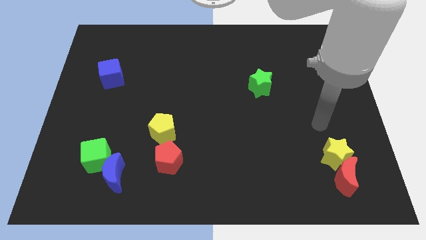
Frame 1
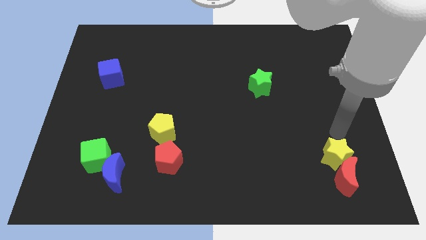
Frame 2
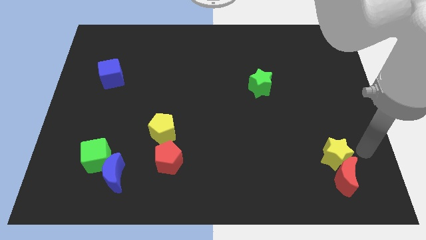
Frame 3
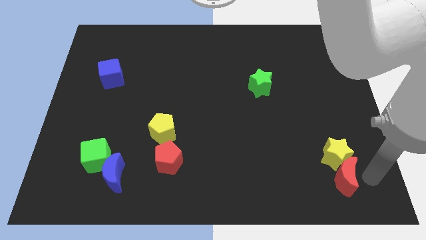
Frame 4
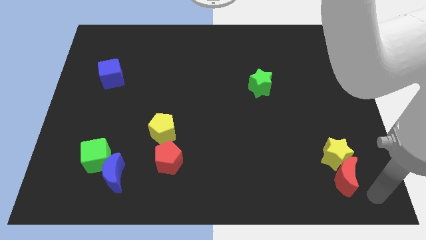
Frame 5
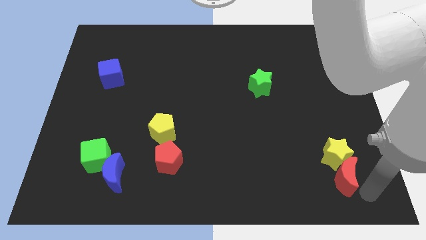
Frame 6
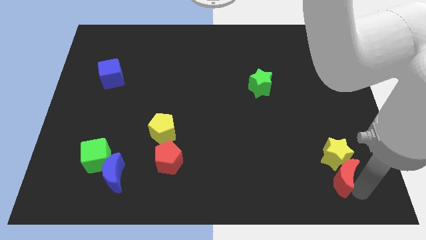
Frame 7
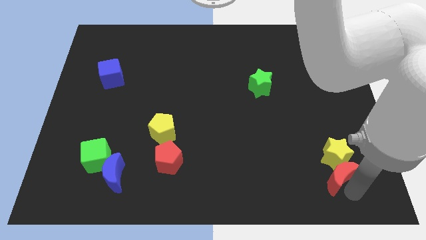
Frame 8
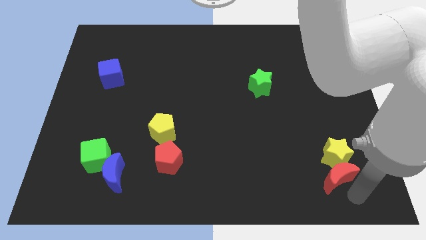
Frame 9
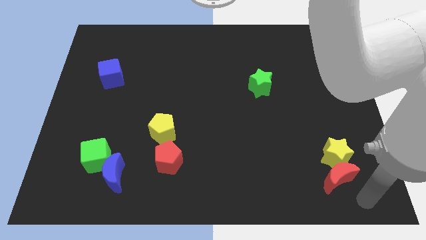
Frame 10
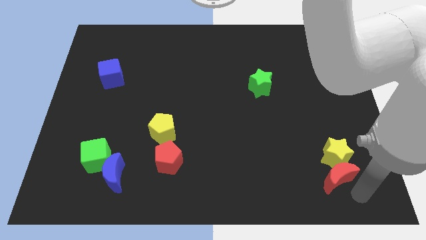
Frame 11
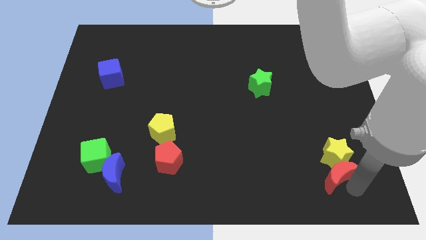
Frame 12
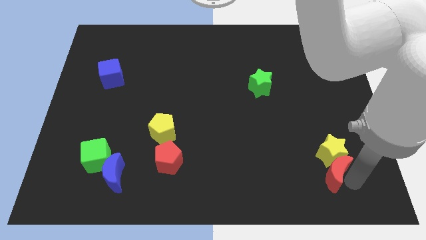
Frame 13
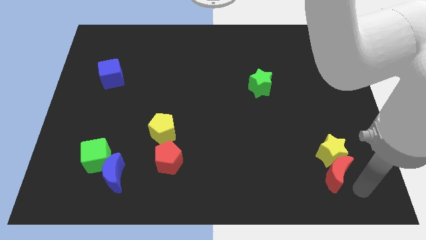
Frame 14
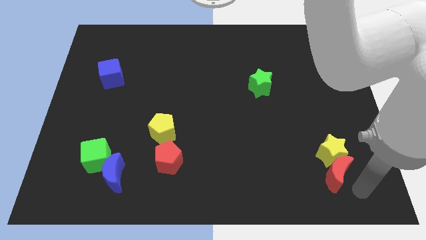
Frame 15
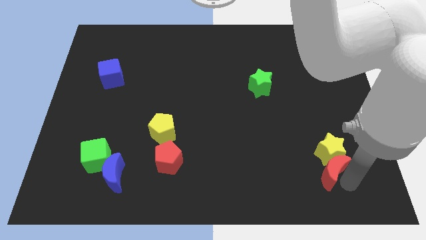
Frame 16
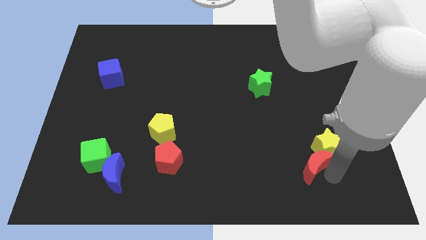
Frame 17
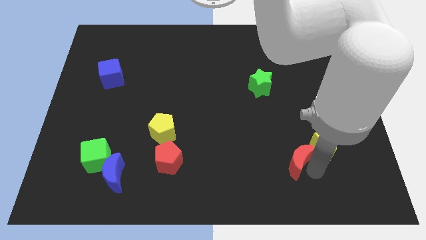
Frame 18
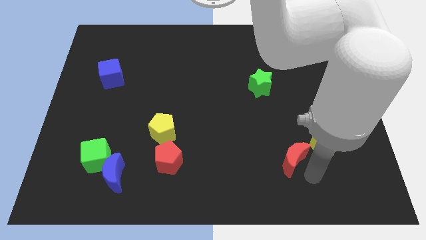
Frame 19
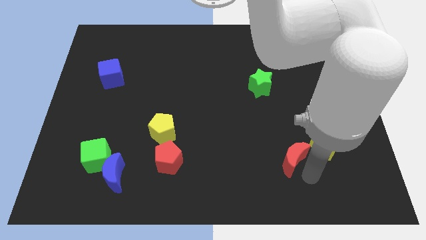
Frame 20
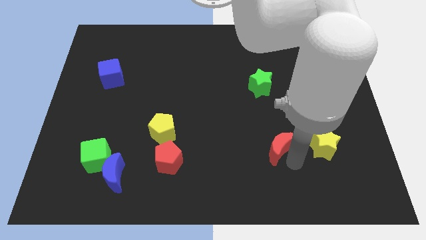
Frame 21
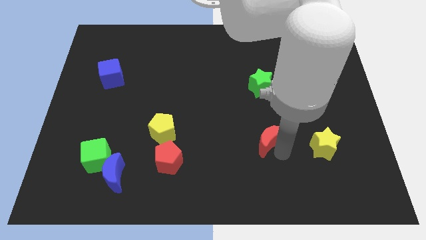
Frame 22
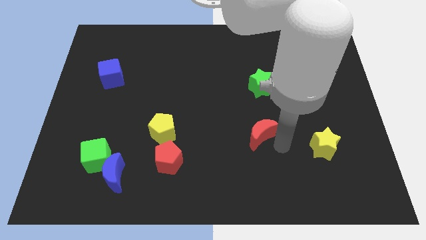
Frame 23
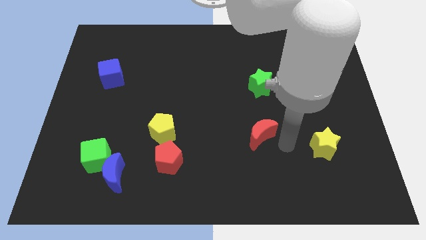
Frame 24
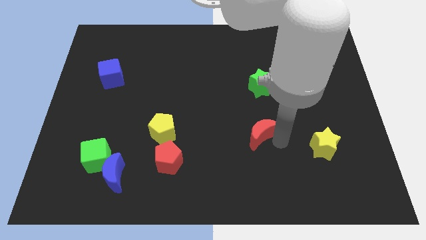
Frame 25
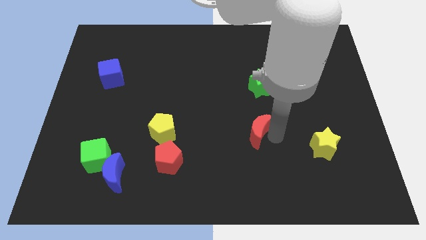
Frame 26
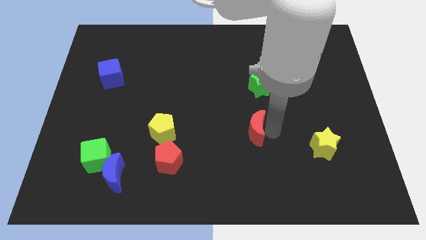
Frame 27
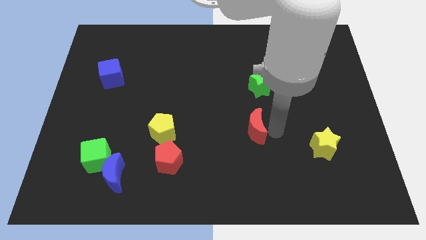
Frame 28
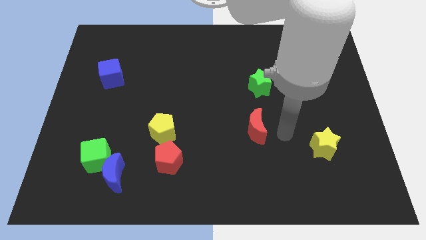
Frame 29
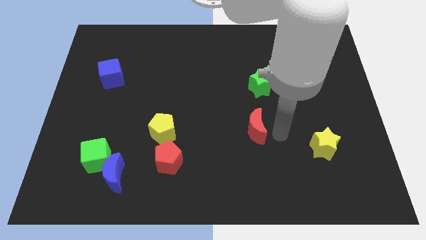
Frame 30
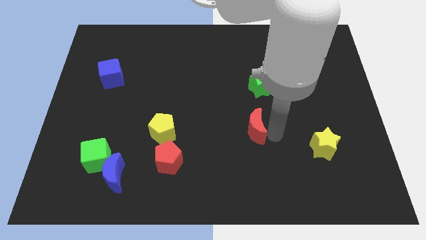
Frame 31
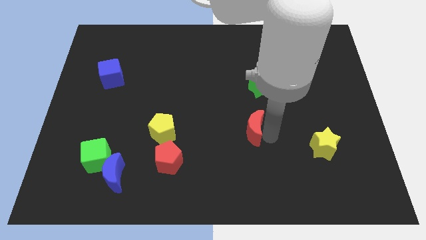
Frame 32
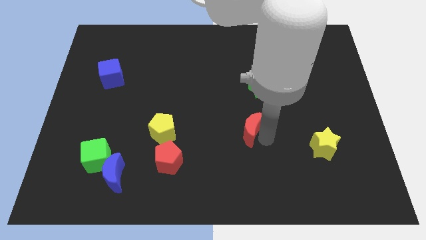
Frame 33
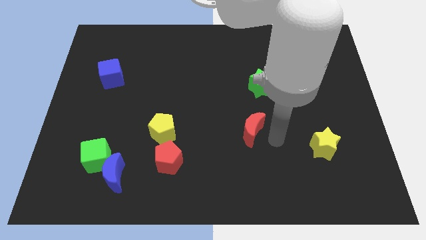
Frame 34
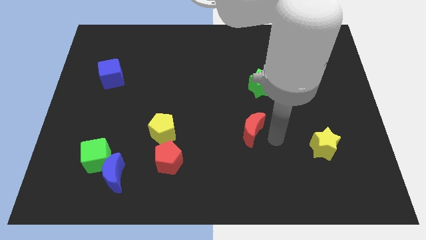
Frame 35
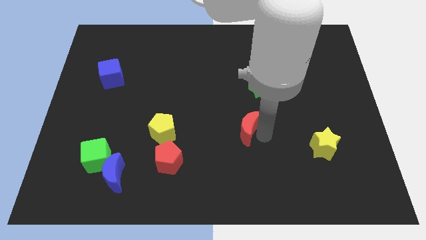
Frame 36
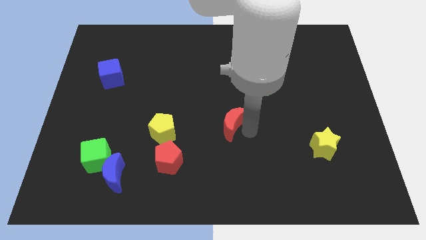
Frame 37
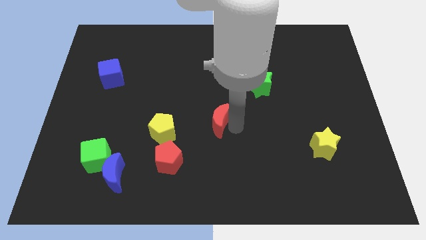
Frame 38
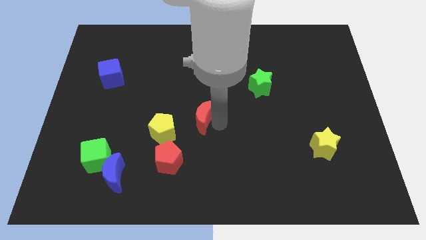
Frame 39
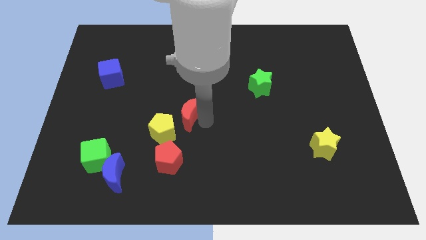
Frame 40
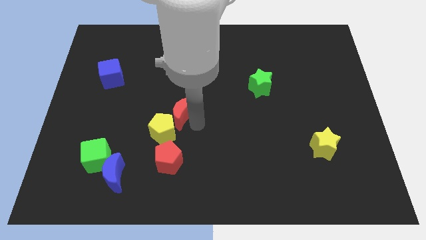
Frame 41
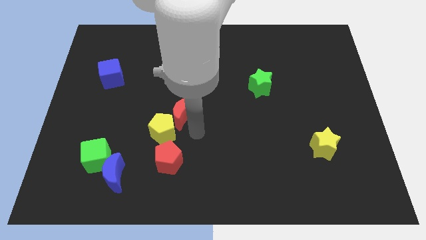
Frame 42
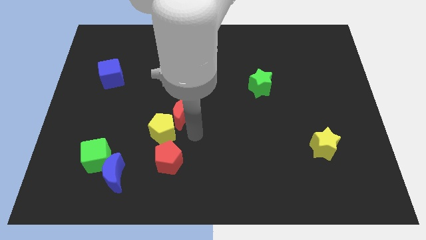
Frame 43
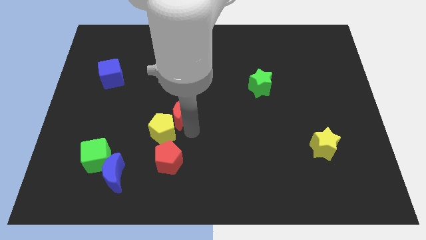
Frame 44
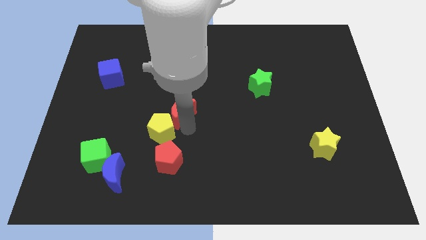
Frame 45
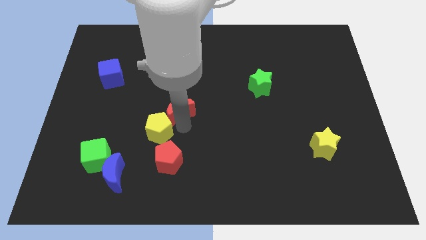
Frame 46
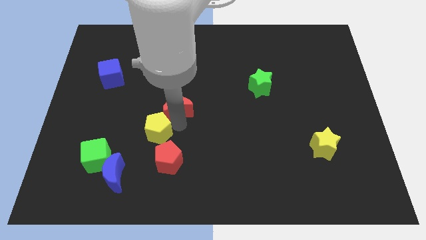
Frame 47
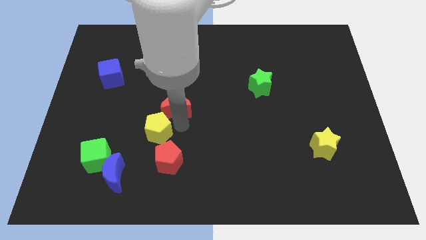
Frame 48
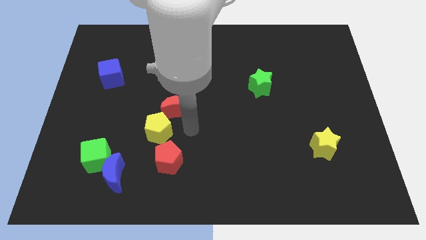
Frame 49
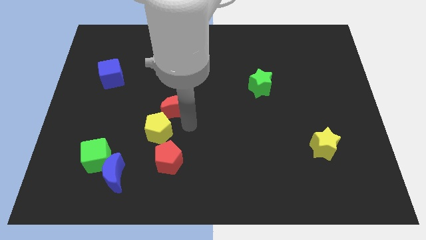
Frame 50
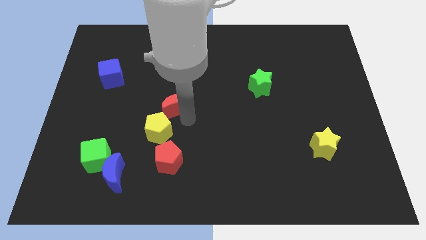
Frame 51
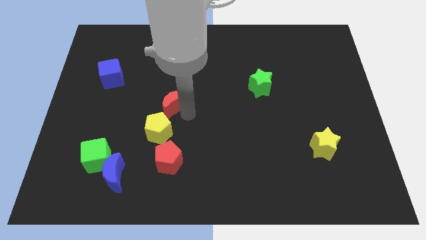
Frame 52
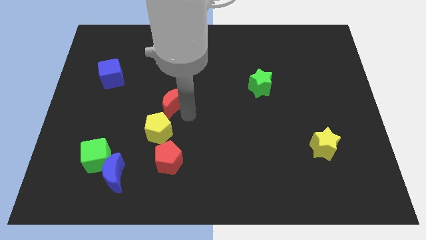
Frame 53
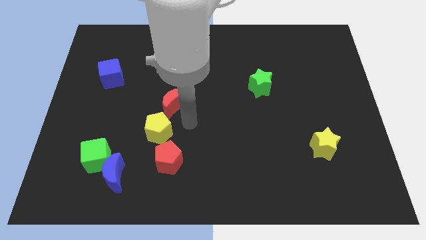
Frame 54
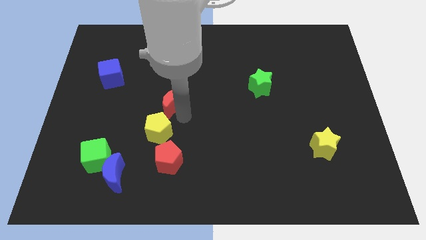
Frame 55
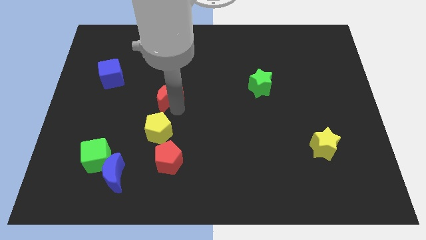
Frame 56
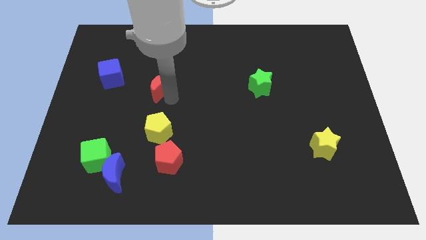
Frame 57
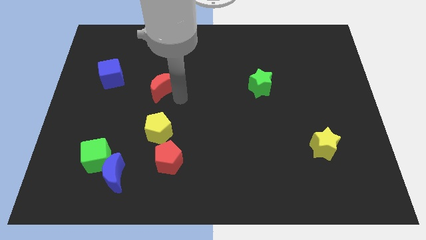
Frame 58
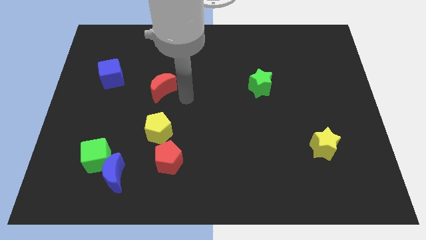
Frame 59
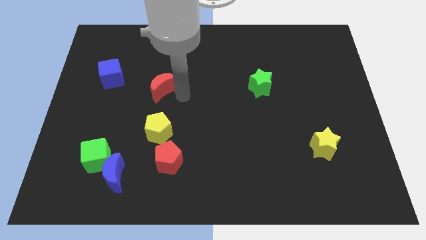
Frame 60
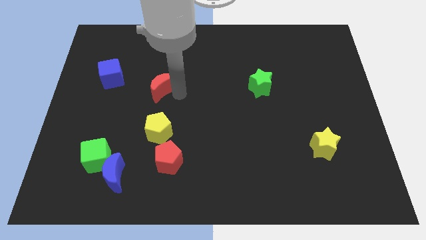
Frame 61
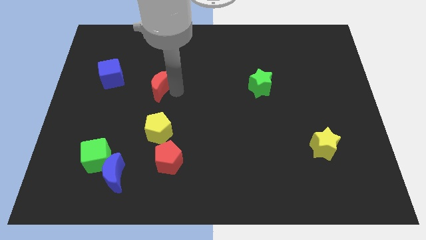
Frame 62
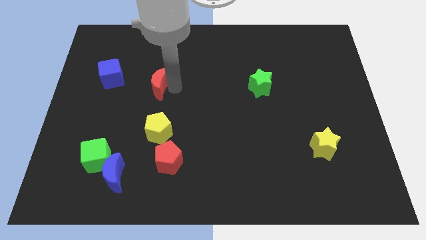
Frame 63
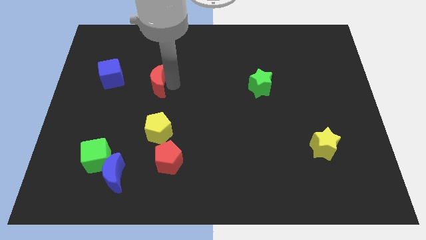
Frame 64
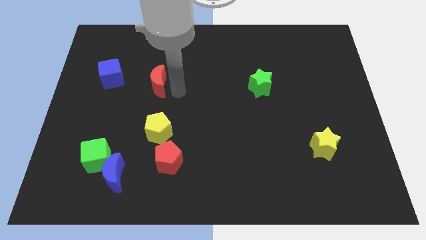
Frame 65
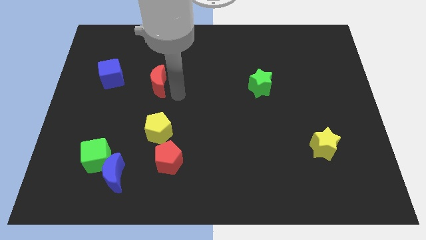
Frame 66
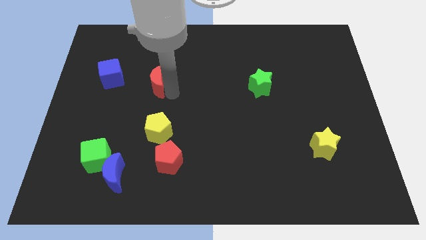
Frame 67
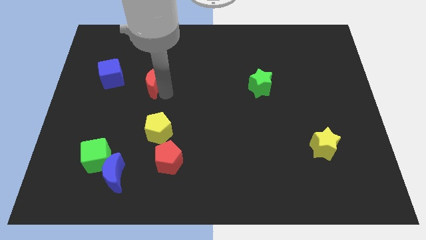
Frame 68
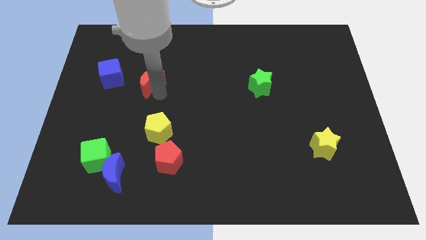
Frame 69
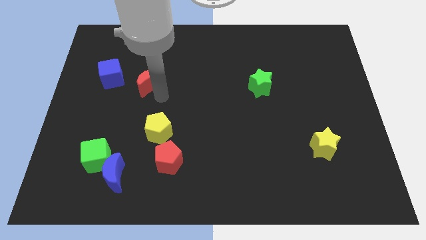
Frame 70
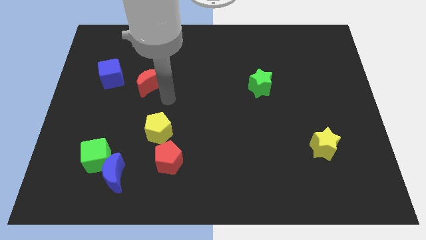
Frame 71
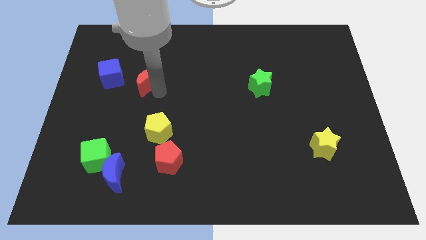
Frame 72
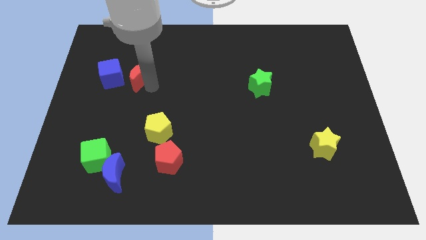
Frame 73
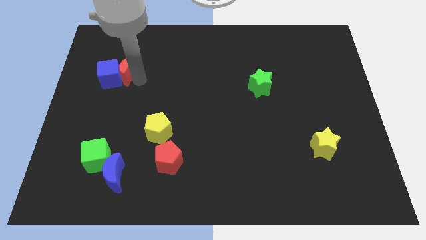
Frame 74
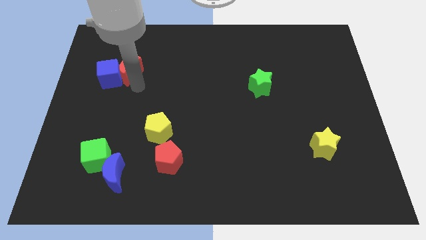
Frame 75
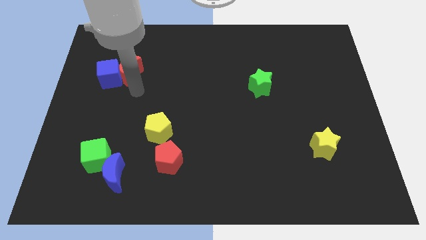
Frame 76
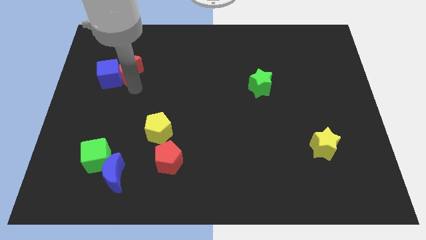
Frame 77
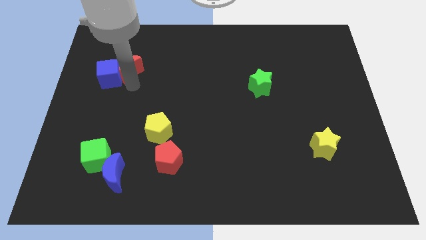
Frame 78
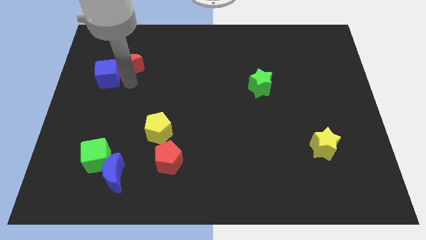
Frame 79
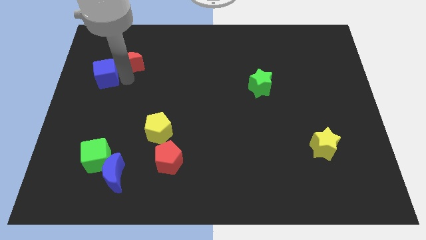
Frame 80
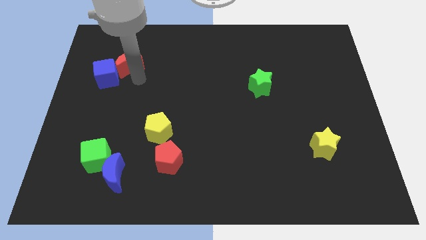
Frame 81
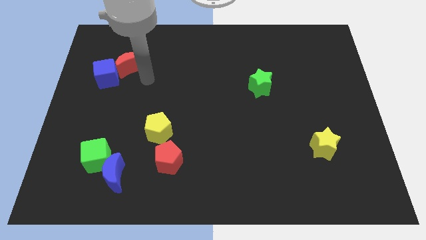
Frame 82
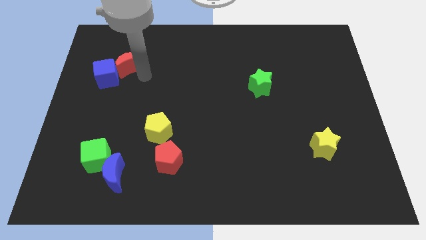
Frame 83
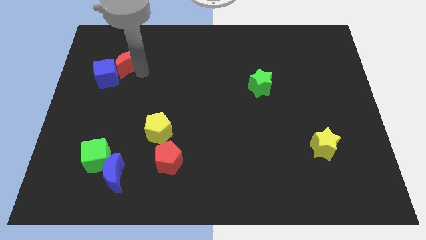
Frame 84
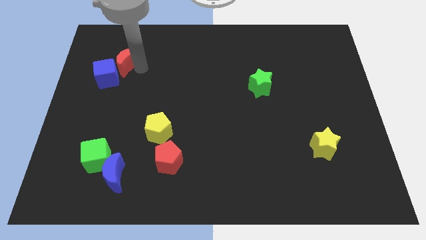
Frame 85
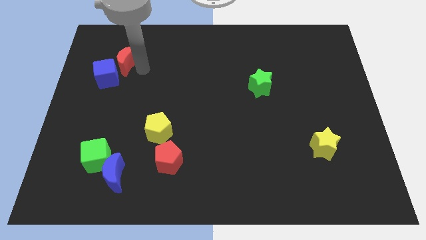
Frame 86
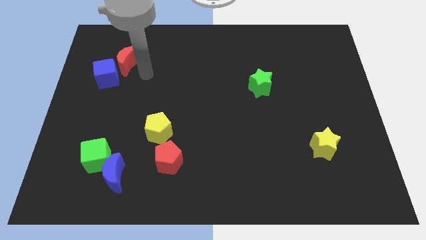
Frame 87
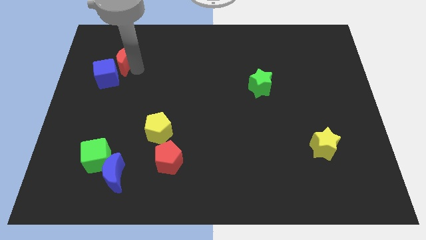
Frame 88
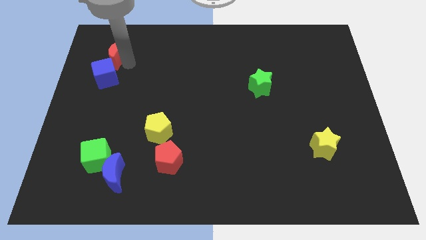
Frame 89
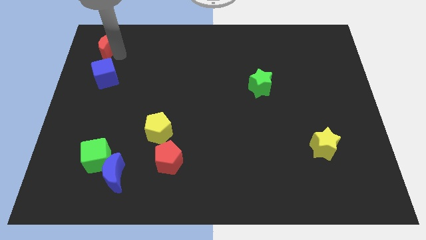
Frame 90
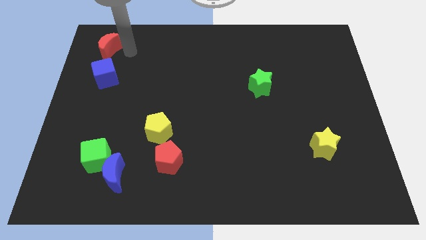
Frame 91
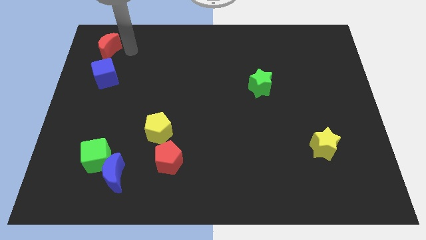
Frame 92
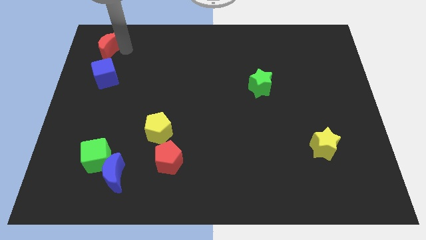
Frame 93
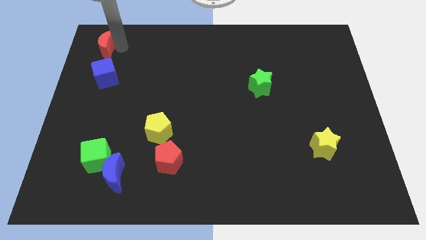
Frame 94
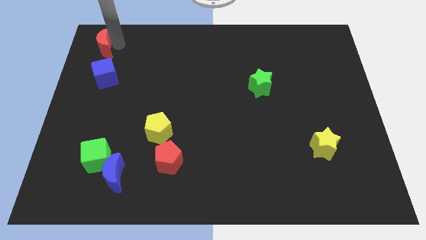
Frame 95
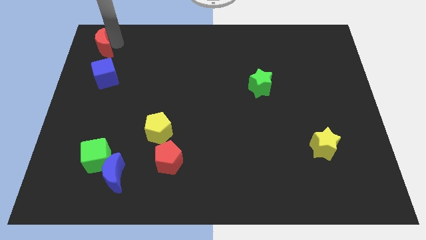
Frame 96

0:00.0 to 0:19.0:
slide the red moon to the upper left corner
